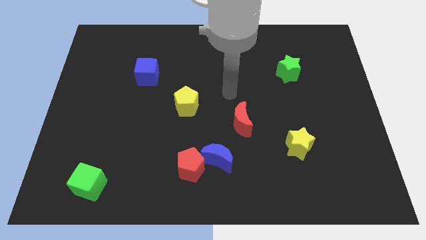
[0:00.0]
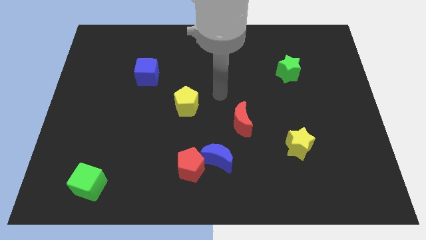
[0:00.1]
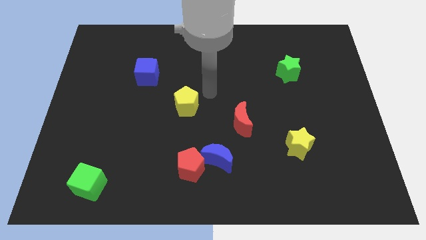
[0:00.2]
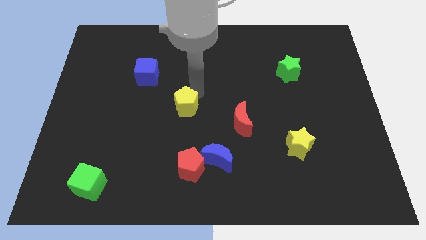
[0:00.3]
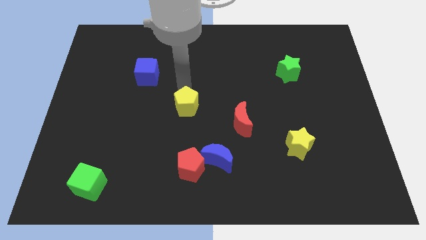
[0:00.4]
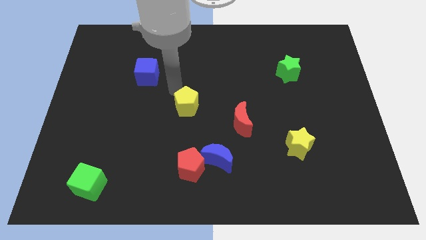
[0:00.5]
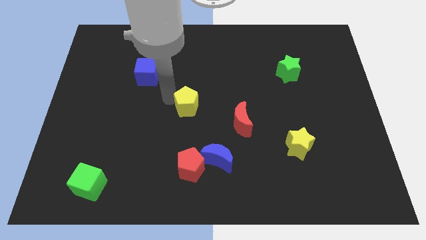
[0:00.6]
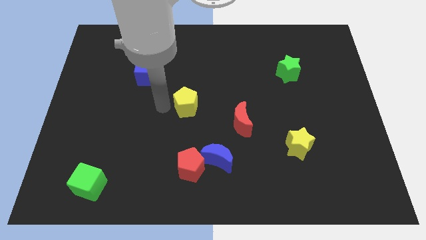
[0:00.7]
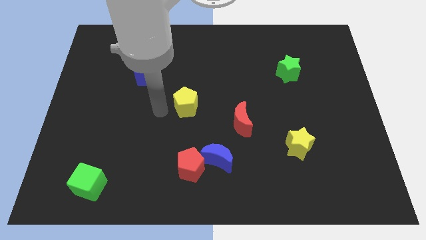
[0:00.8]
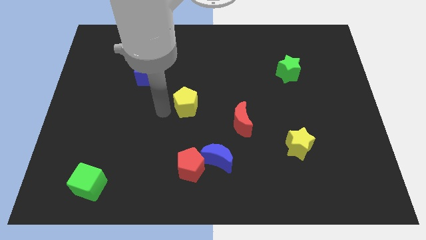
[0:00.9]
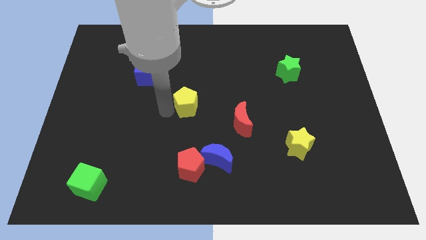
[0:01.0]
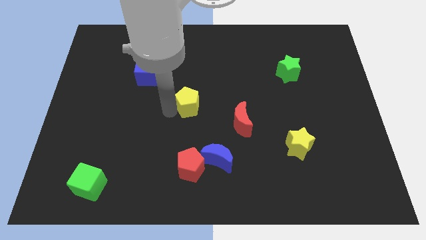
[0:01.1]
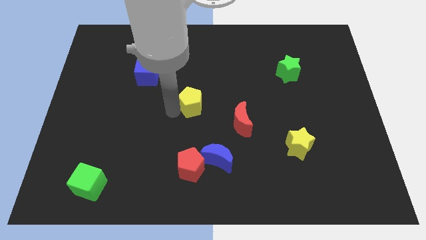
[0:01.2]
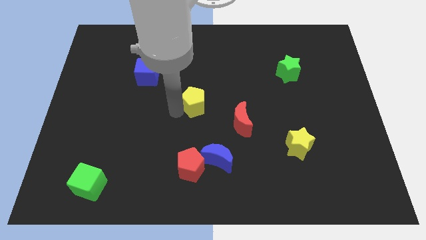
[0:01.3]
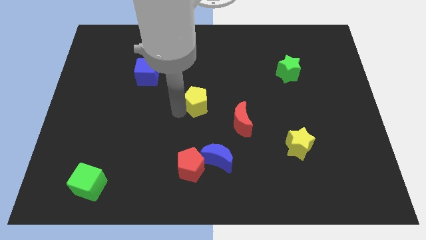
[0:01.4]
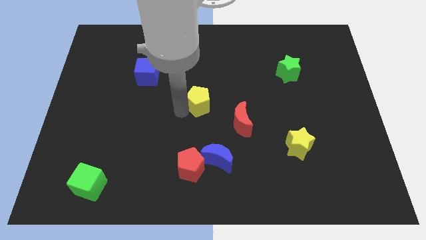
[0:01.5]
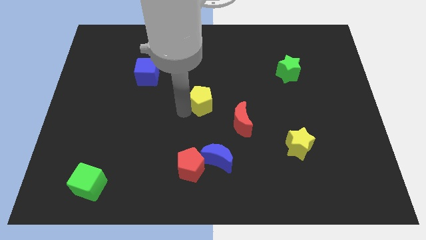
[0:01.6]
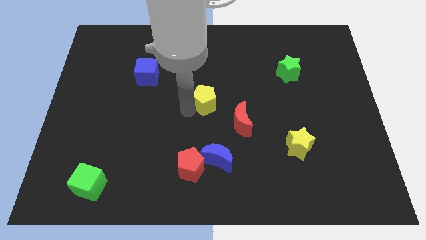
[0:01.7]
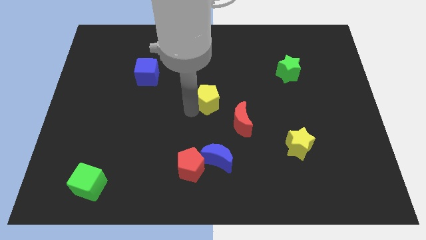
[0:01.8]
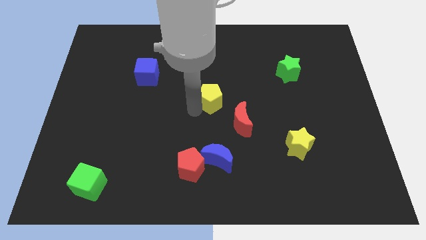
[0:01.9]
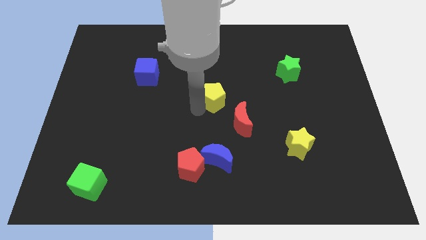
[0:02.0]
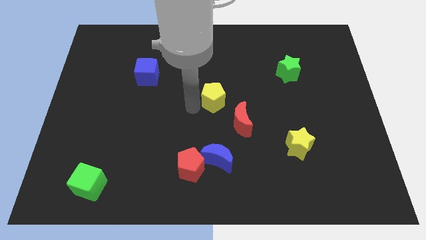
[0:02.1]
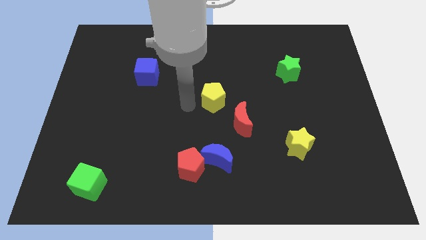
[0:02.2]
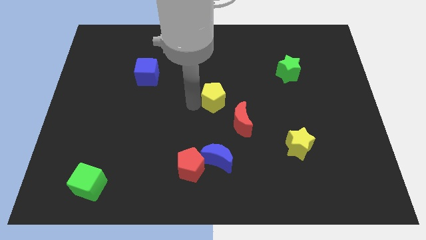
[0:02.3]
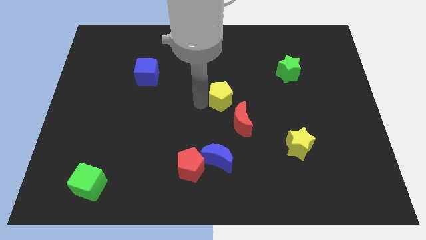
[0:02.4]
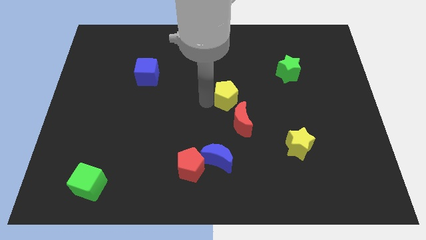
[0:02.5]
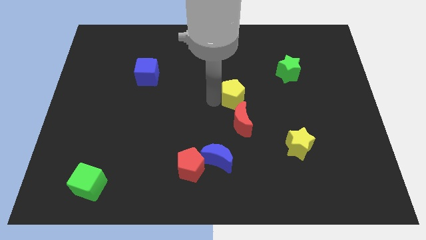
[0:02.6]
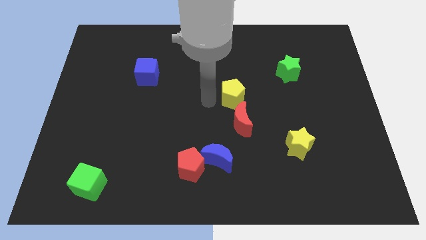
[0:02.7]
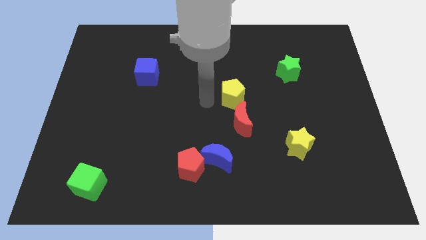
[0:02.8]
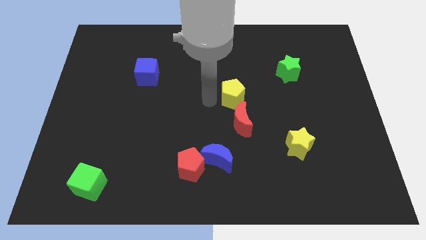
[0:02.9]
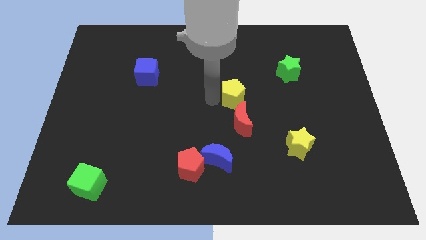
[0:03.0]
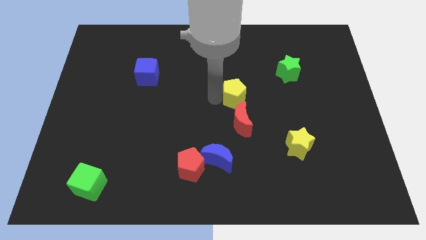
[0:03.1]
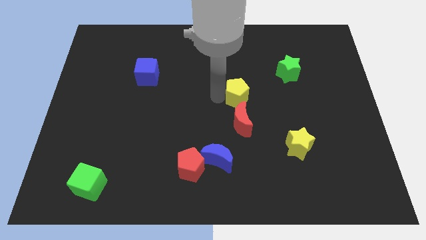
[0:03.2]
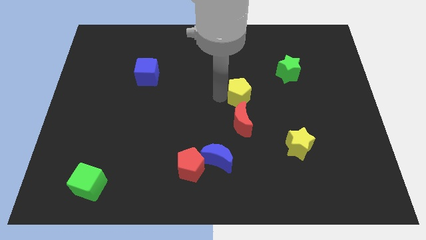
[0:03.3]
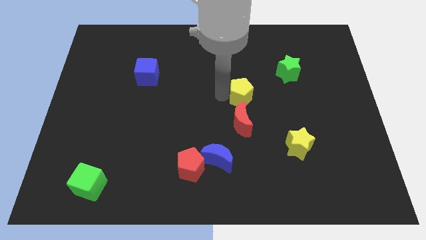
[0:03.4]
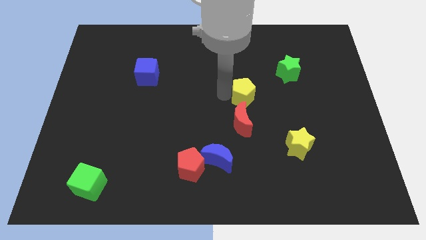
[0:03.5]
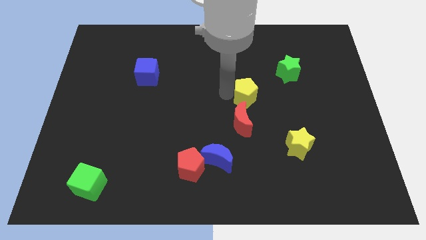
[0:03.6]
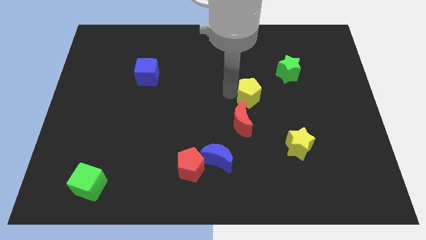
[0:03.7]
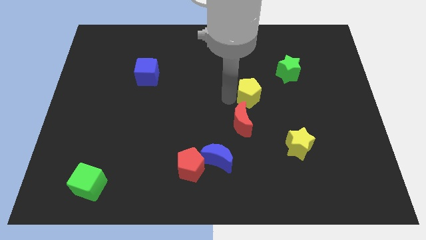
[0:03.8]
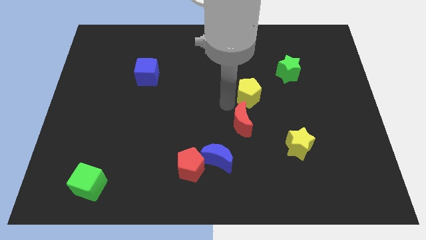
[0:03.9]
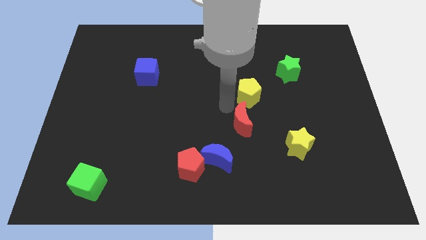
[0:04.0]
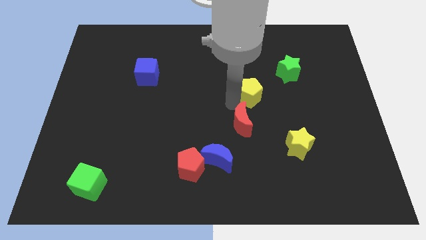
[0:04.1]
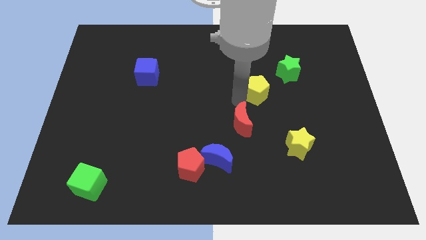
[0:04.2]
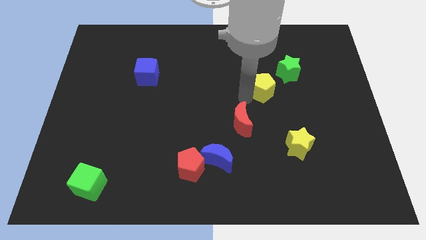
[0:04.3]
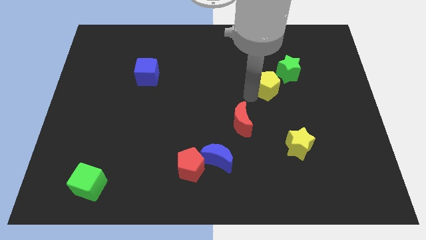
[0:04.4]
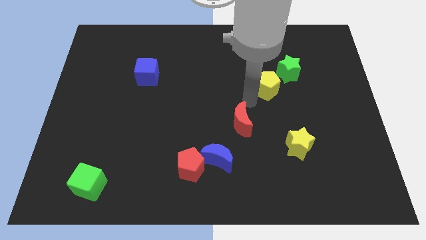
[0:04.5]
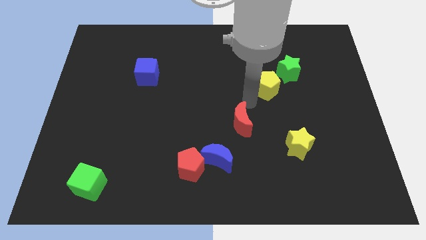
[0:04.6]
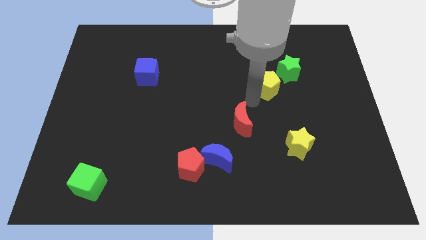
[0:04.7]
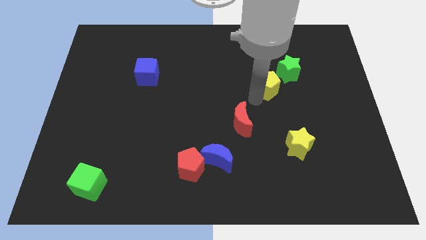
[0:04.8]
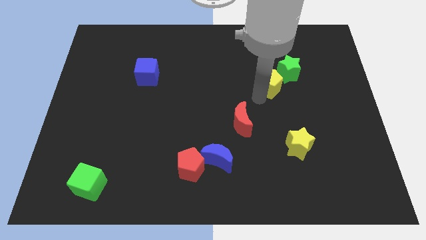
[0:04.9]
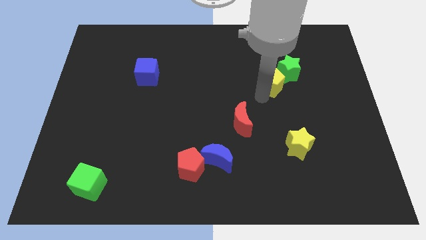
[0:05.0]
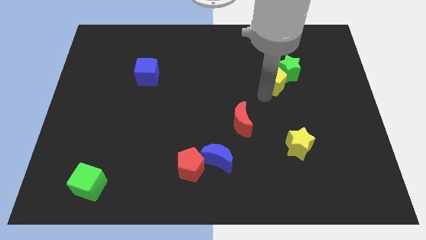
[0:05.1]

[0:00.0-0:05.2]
slide the yellow pentagon next to the green star

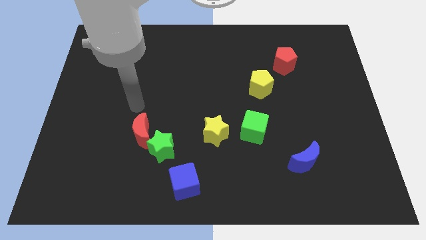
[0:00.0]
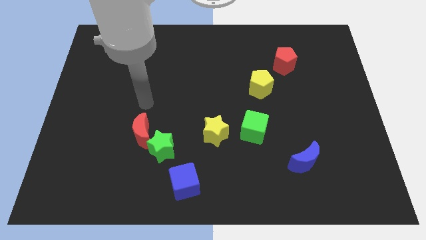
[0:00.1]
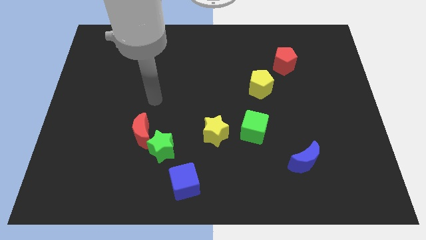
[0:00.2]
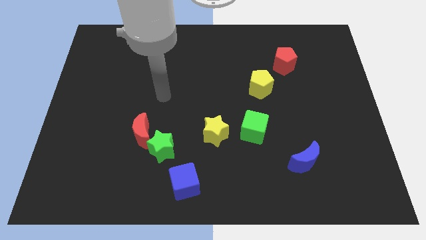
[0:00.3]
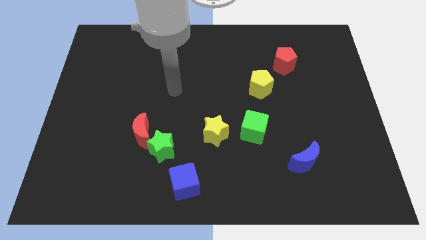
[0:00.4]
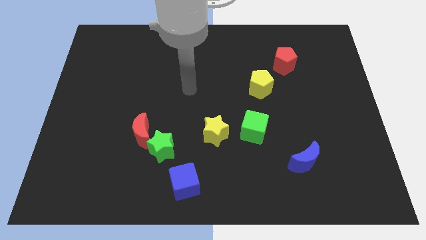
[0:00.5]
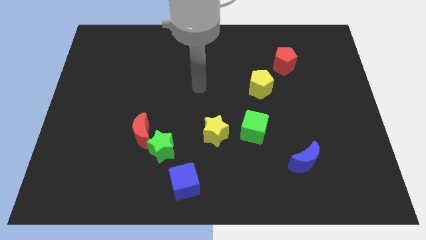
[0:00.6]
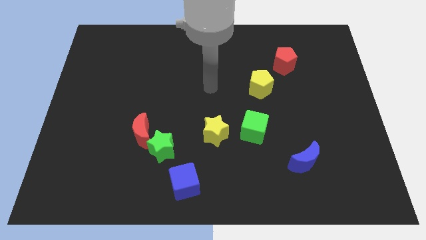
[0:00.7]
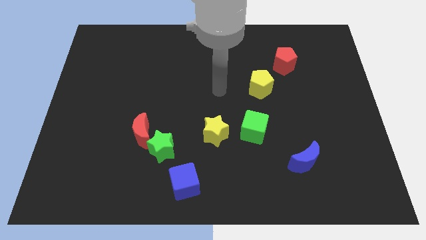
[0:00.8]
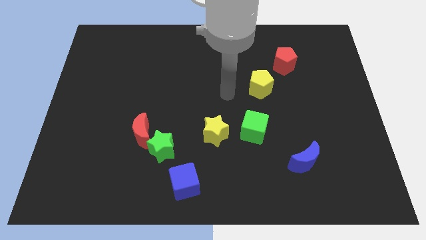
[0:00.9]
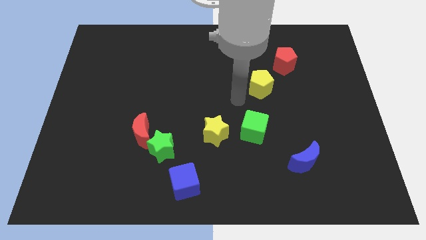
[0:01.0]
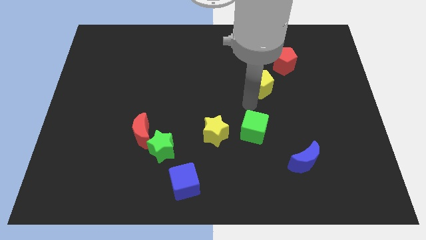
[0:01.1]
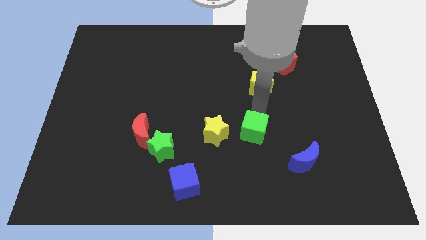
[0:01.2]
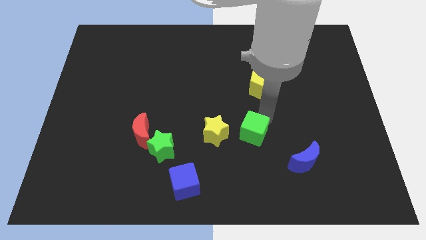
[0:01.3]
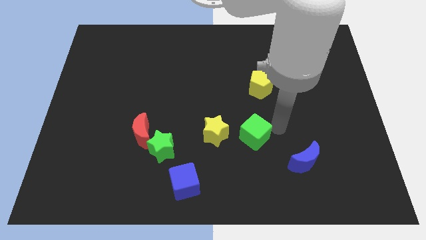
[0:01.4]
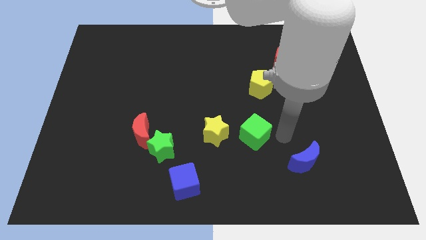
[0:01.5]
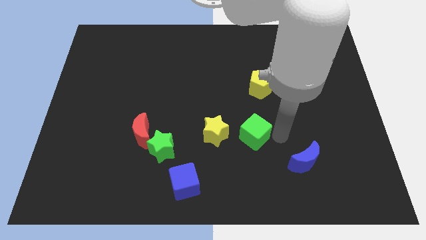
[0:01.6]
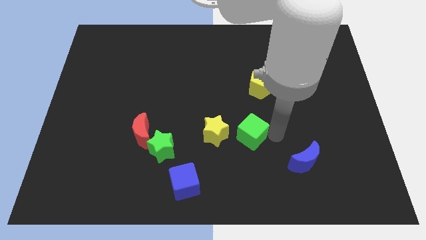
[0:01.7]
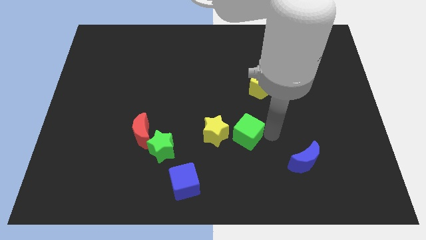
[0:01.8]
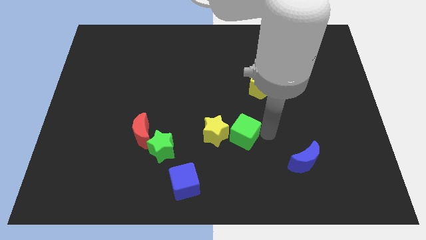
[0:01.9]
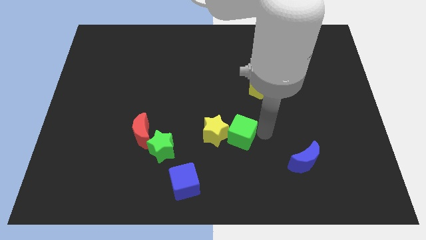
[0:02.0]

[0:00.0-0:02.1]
push the green cube towards the yellow star

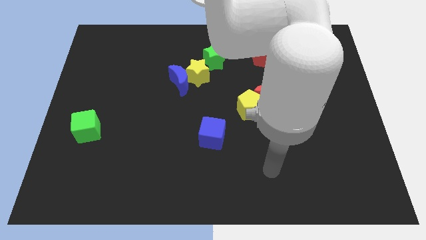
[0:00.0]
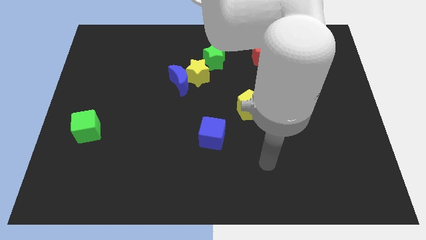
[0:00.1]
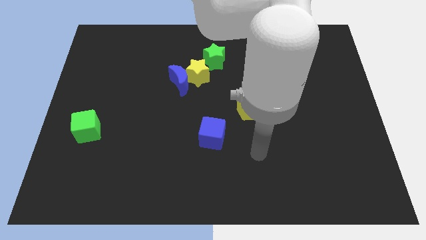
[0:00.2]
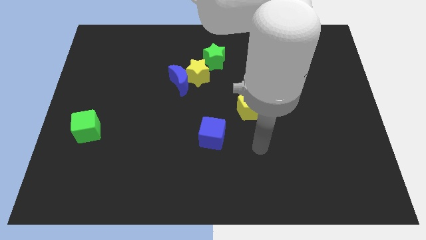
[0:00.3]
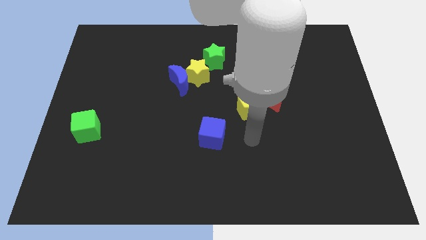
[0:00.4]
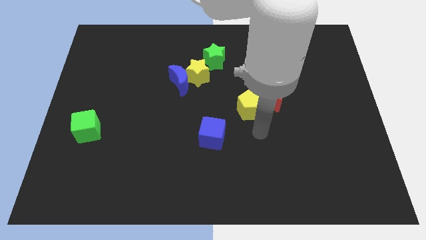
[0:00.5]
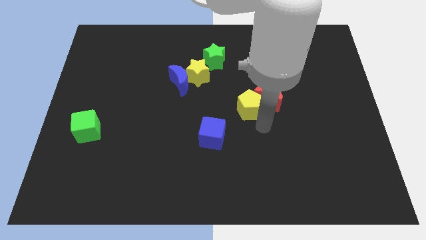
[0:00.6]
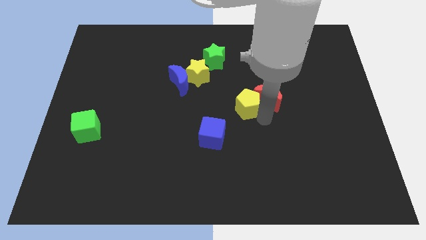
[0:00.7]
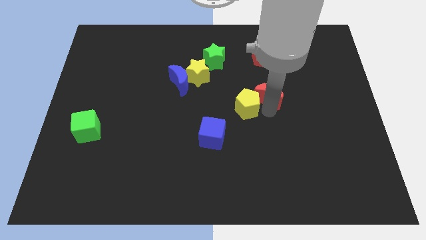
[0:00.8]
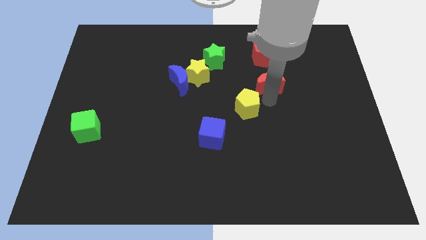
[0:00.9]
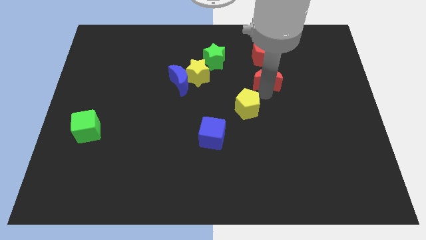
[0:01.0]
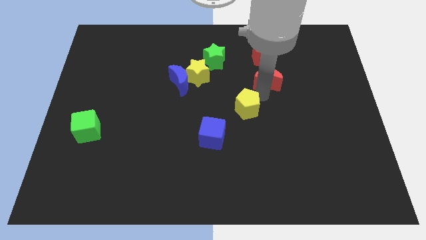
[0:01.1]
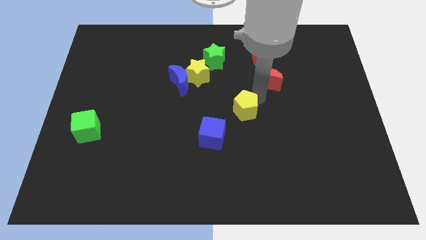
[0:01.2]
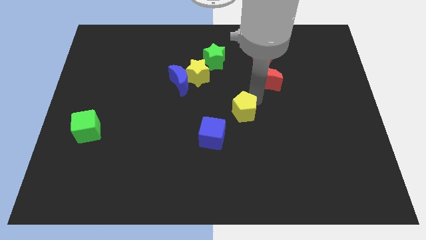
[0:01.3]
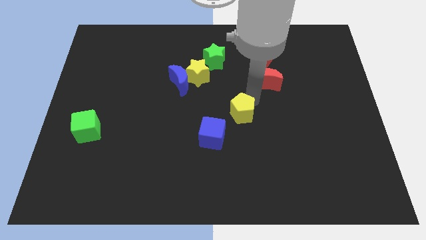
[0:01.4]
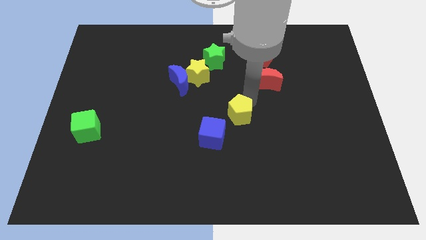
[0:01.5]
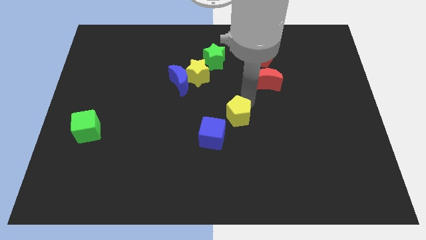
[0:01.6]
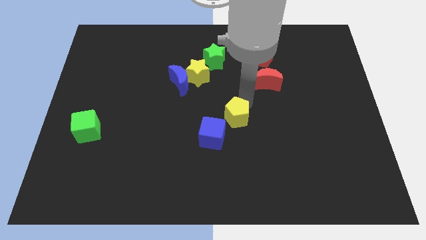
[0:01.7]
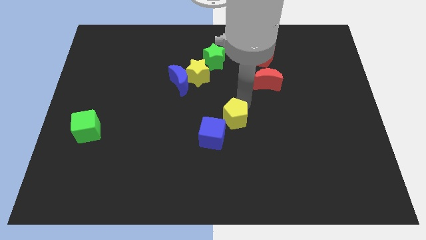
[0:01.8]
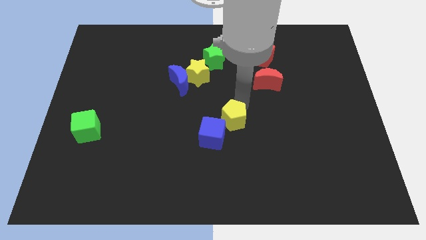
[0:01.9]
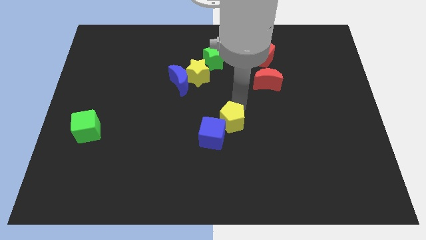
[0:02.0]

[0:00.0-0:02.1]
push the yellow pentagon close to the blue cube
